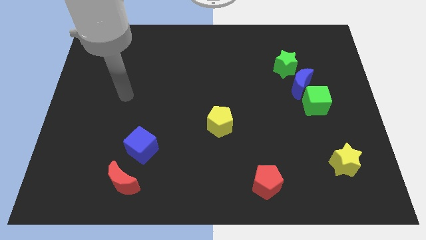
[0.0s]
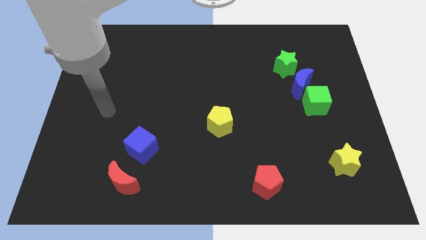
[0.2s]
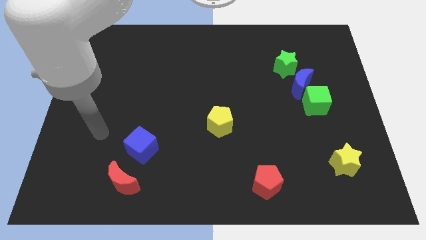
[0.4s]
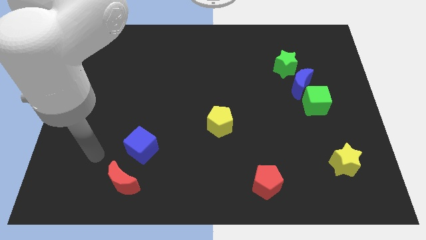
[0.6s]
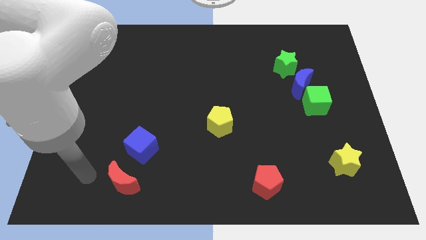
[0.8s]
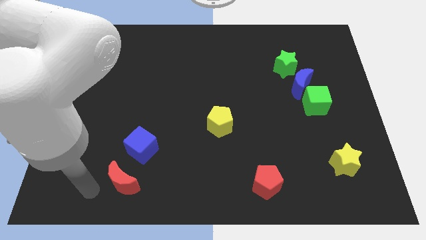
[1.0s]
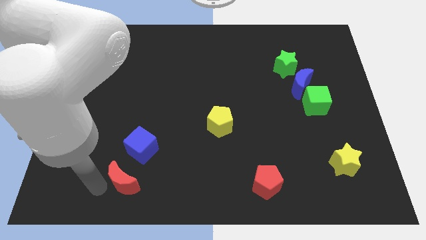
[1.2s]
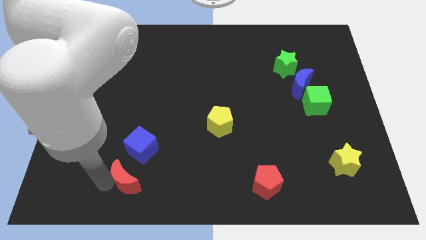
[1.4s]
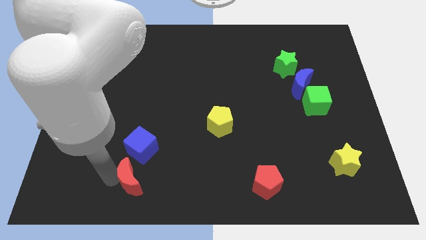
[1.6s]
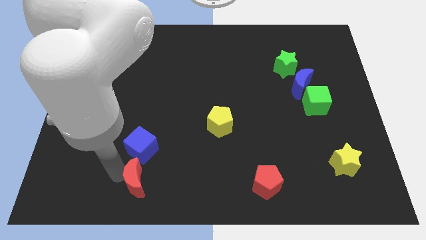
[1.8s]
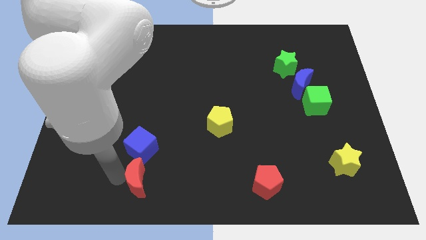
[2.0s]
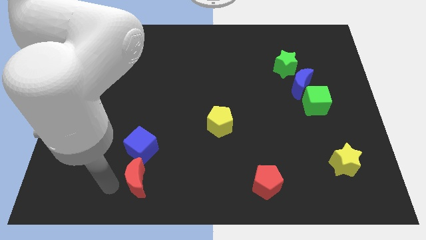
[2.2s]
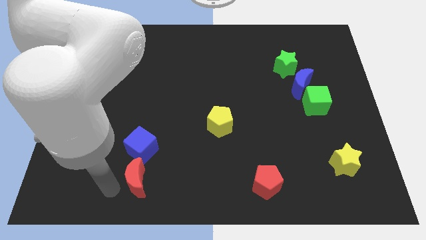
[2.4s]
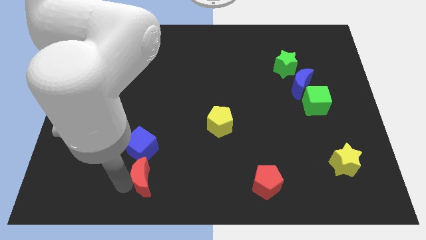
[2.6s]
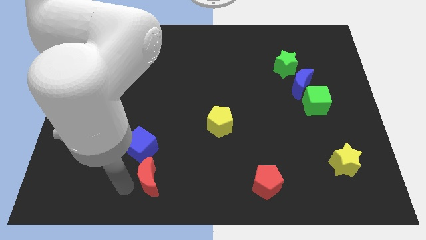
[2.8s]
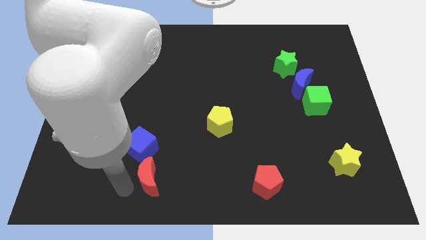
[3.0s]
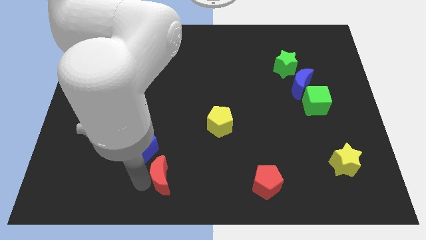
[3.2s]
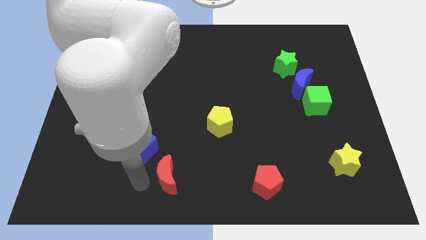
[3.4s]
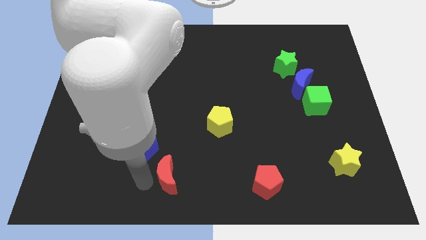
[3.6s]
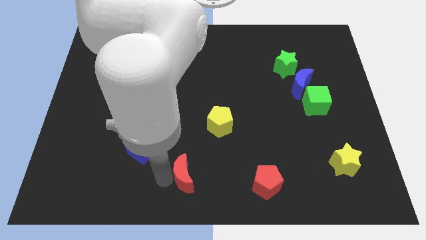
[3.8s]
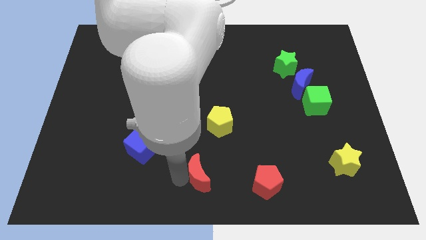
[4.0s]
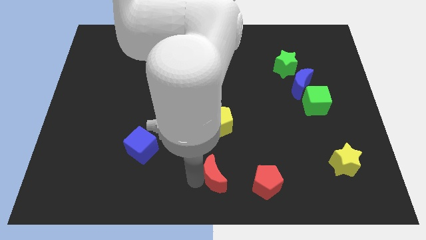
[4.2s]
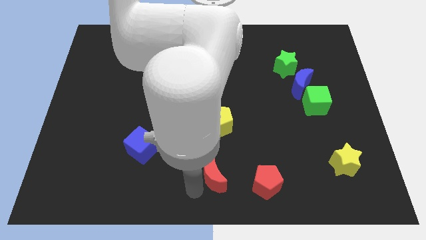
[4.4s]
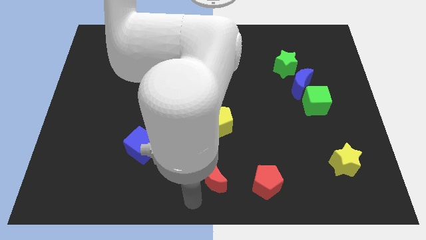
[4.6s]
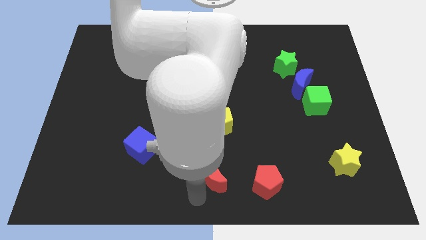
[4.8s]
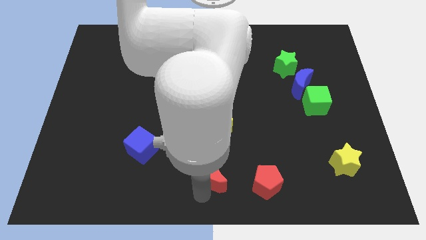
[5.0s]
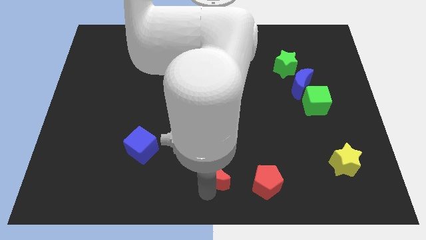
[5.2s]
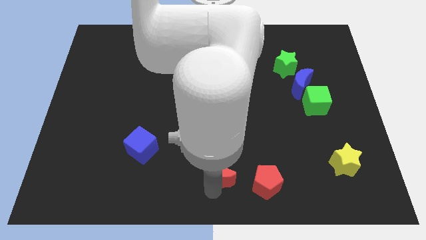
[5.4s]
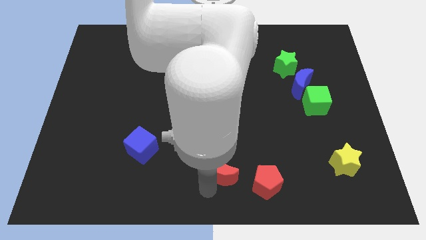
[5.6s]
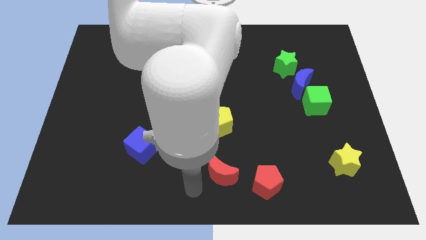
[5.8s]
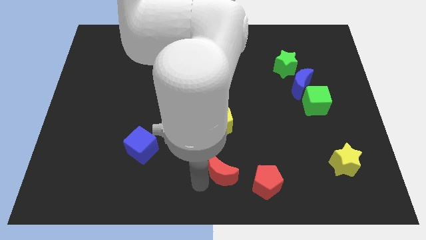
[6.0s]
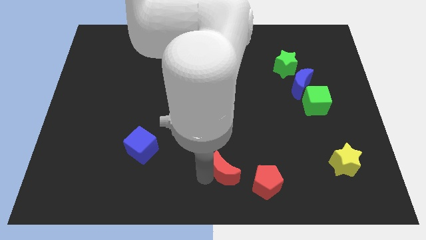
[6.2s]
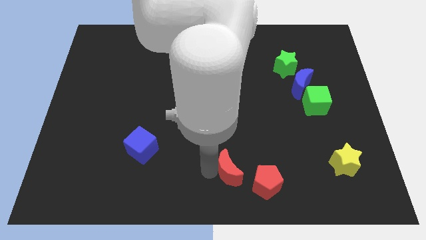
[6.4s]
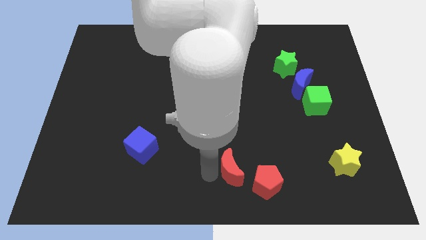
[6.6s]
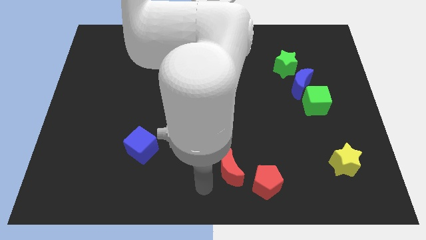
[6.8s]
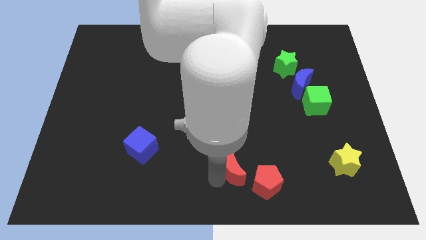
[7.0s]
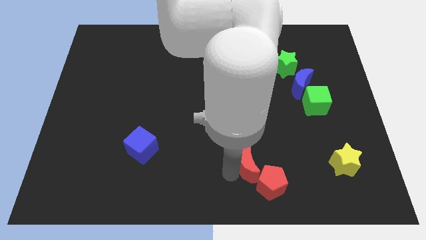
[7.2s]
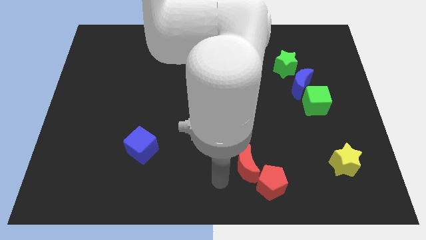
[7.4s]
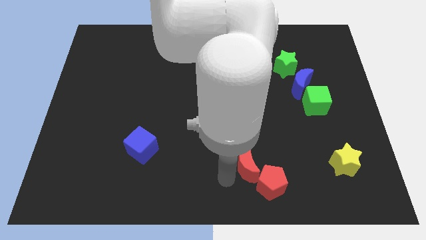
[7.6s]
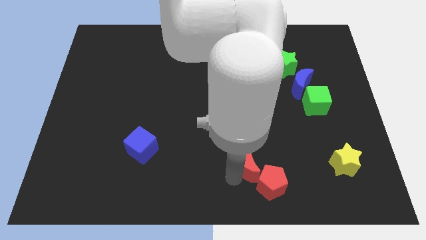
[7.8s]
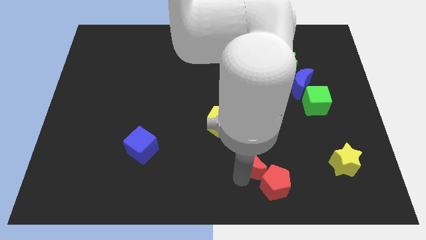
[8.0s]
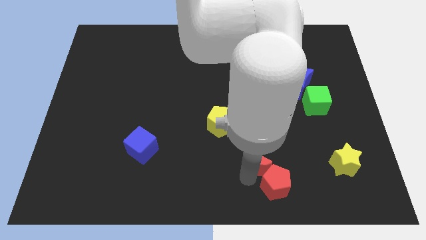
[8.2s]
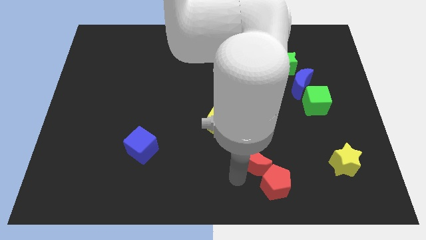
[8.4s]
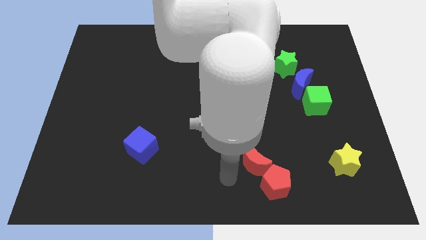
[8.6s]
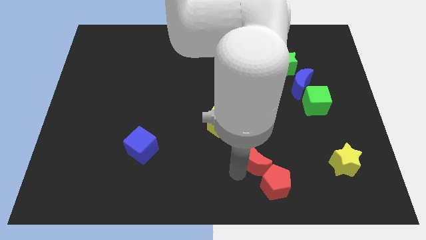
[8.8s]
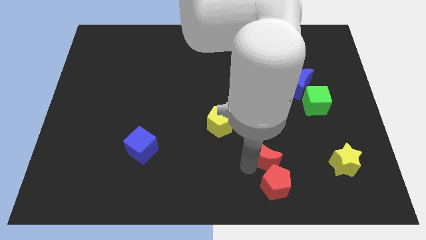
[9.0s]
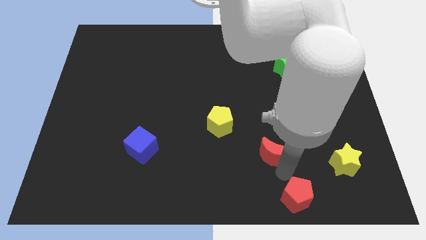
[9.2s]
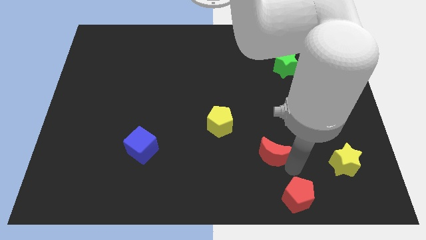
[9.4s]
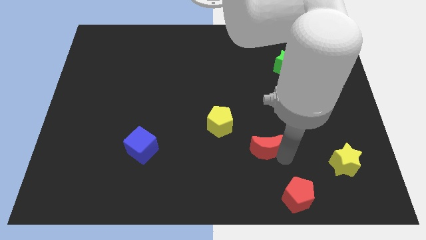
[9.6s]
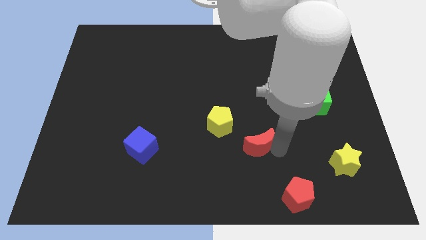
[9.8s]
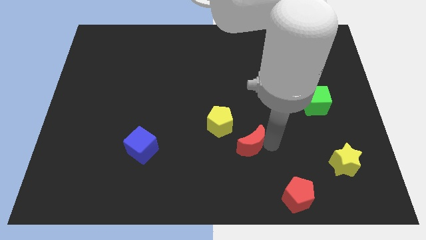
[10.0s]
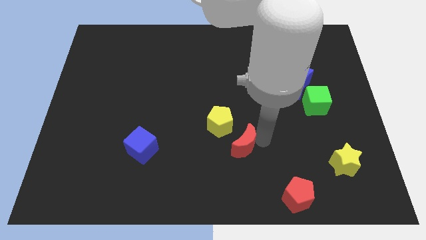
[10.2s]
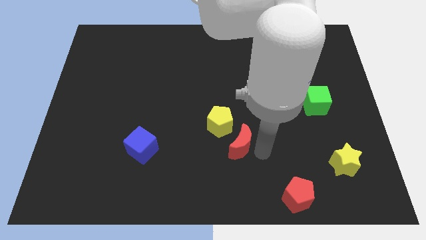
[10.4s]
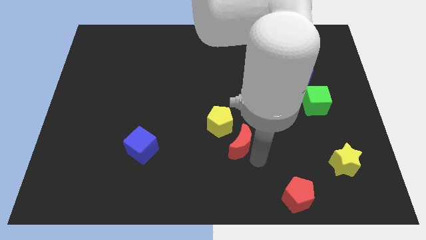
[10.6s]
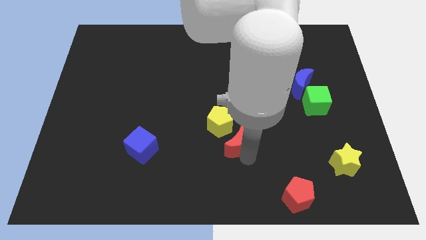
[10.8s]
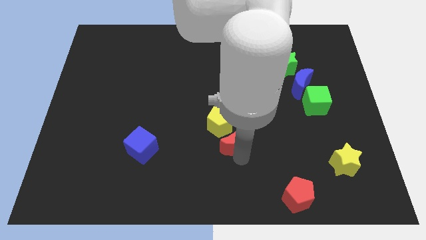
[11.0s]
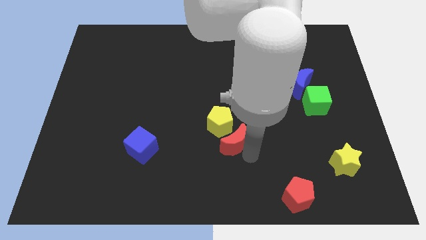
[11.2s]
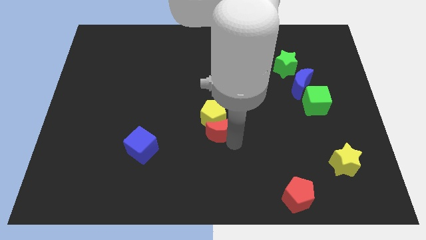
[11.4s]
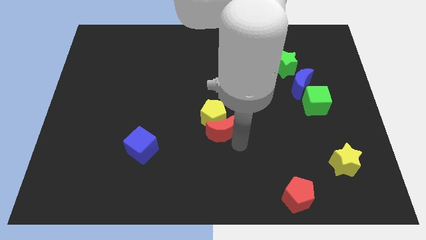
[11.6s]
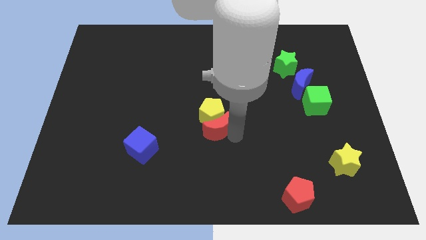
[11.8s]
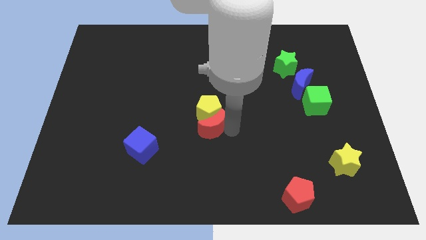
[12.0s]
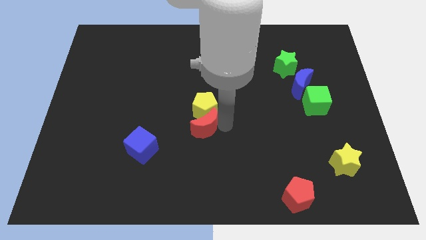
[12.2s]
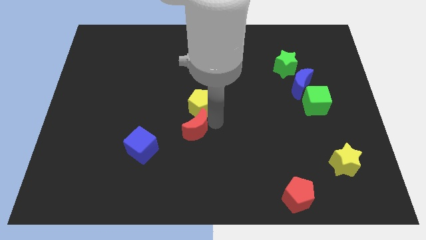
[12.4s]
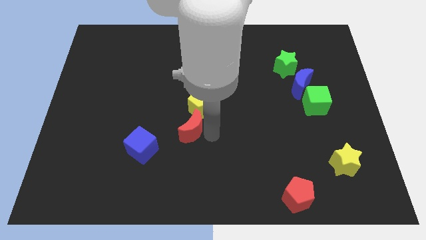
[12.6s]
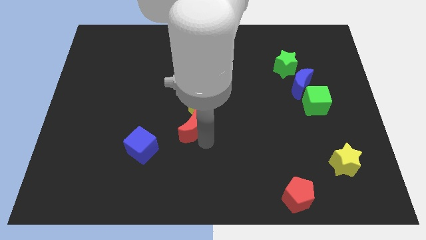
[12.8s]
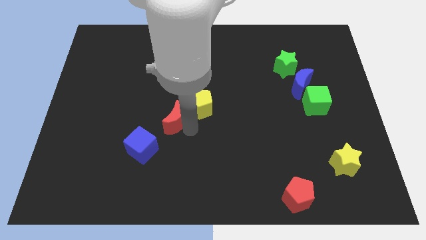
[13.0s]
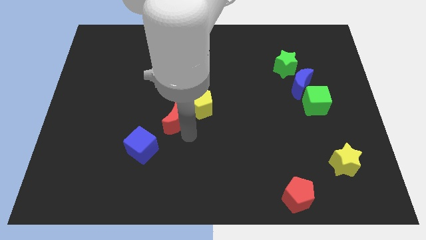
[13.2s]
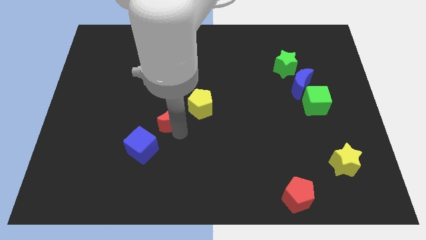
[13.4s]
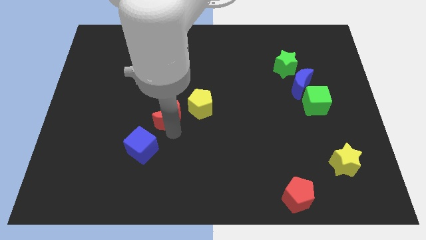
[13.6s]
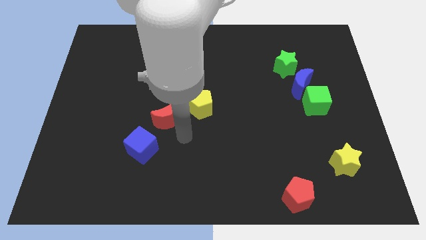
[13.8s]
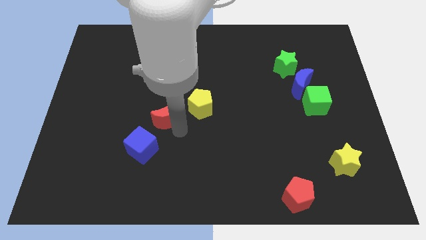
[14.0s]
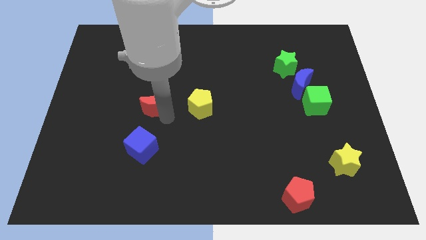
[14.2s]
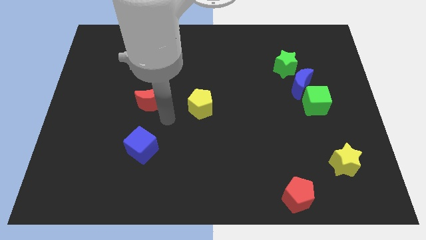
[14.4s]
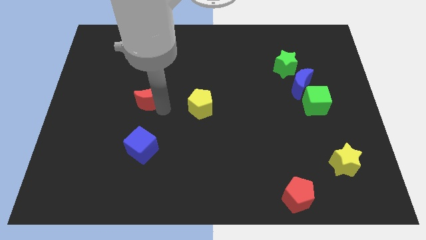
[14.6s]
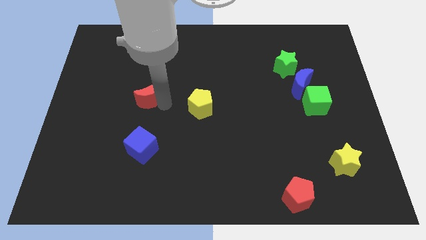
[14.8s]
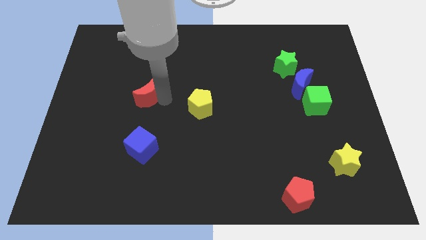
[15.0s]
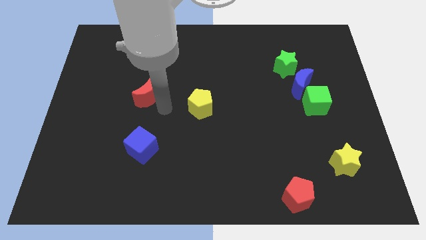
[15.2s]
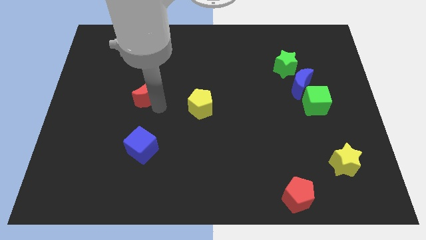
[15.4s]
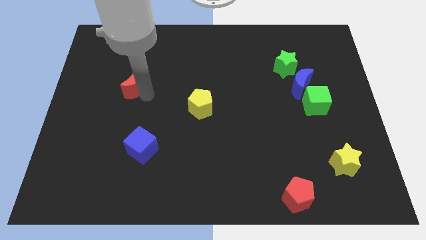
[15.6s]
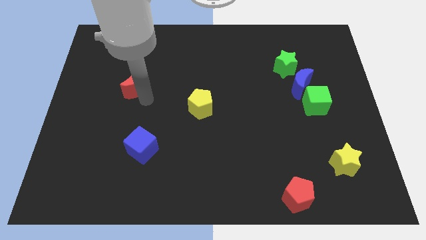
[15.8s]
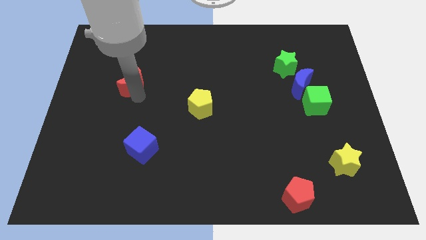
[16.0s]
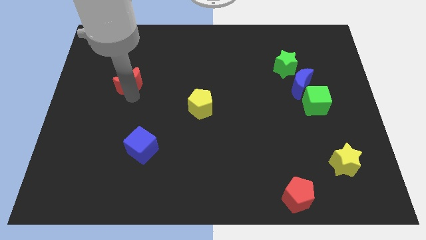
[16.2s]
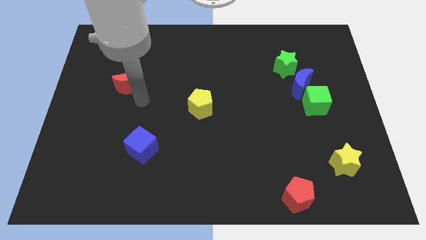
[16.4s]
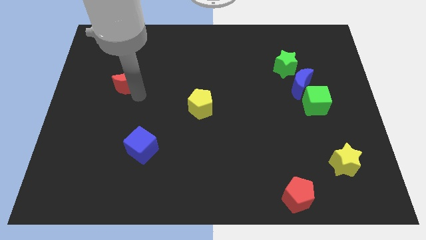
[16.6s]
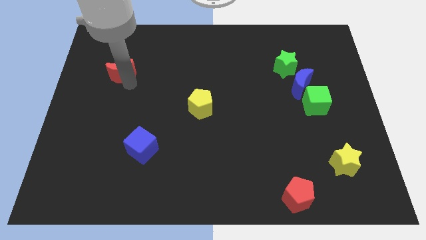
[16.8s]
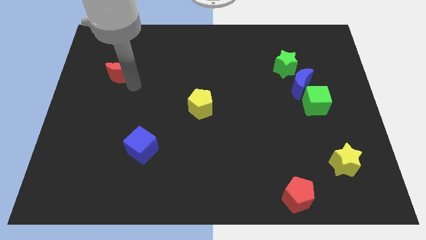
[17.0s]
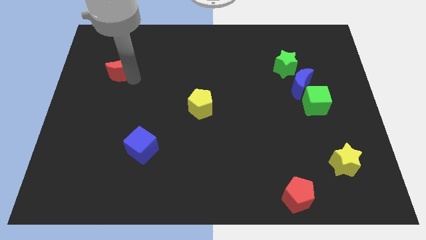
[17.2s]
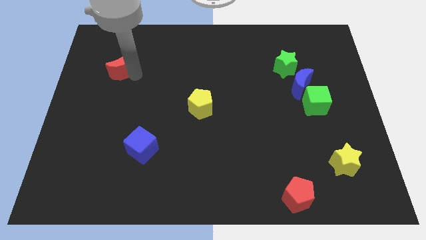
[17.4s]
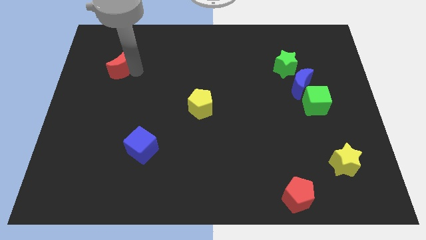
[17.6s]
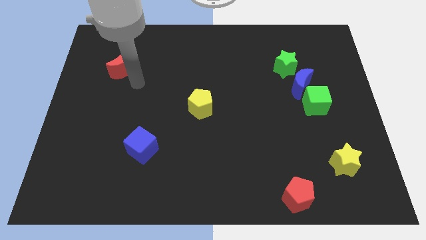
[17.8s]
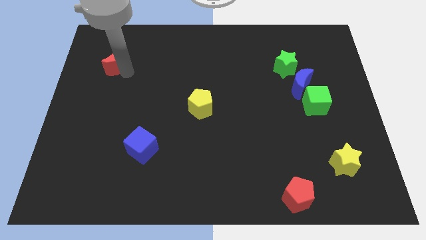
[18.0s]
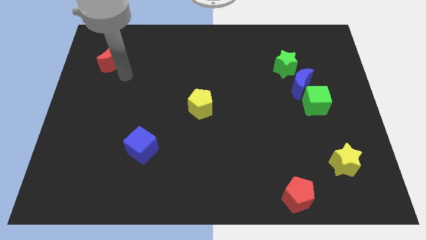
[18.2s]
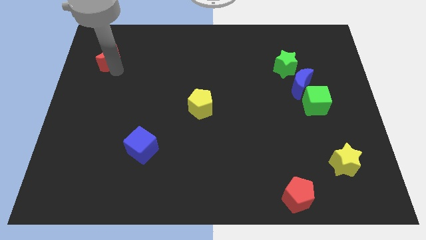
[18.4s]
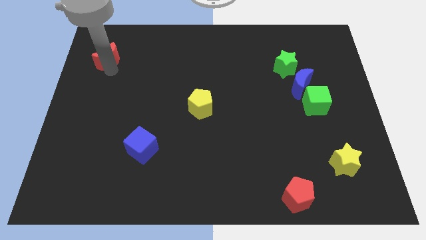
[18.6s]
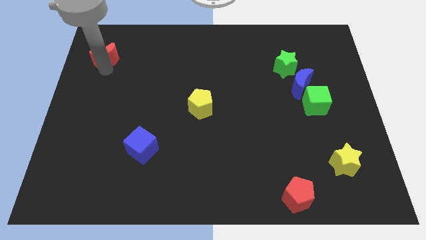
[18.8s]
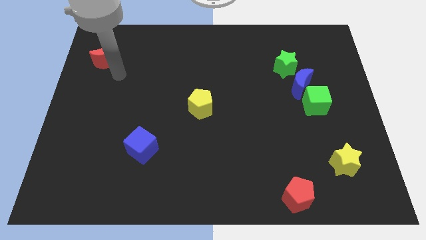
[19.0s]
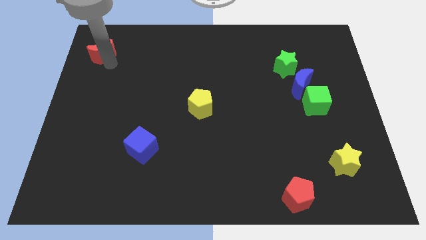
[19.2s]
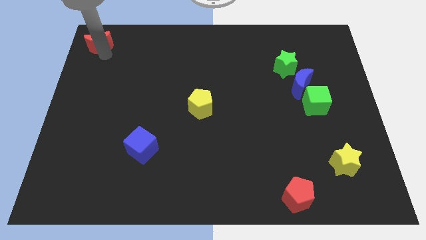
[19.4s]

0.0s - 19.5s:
move the red moon to the upper left corner
